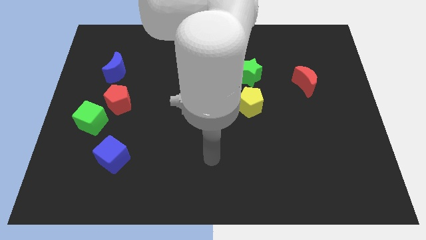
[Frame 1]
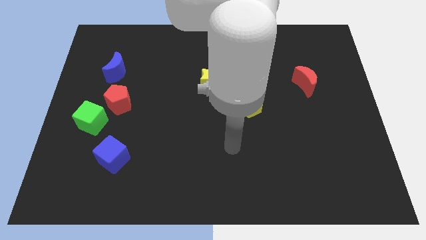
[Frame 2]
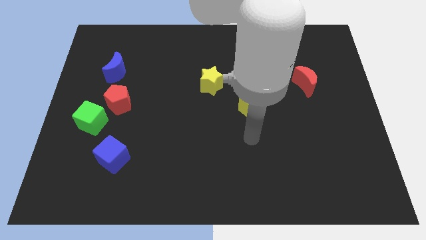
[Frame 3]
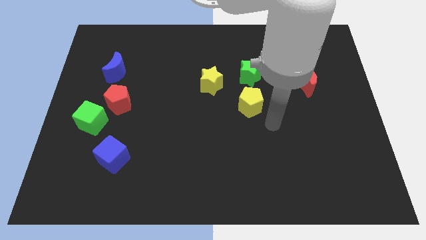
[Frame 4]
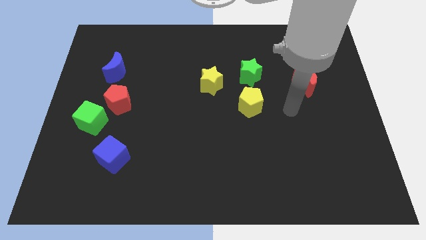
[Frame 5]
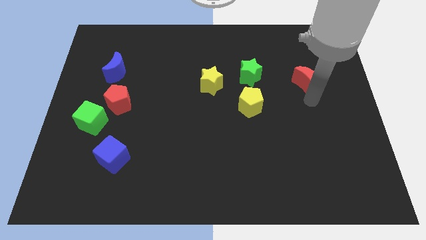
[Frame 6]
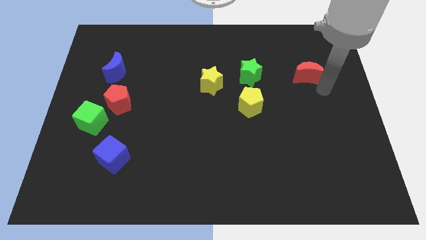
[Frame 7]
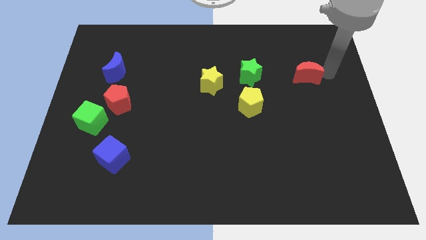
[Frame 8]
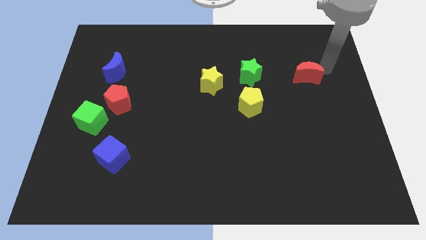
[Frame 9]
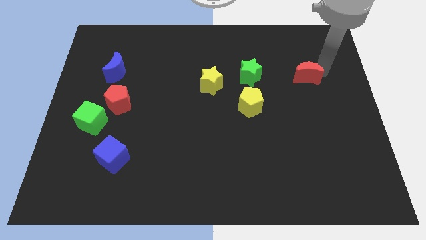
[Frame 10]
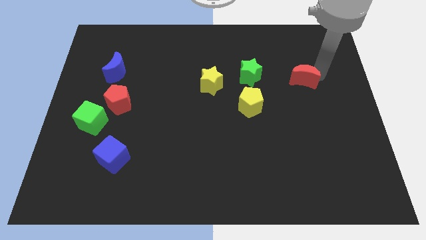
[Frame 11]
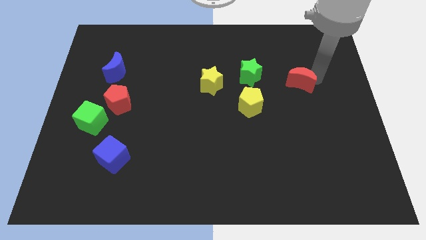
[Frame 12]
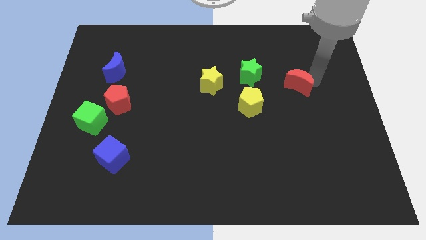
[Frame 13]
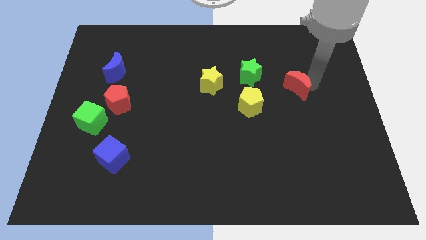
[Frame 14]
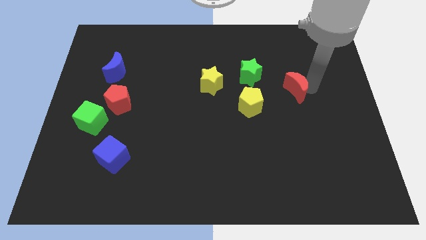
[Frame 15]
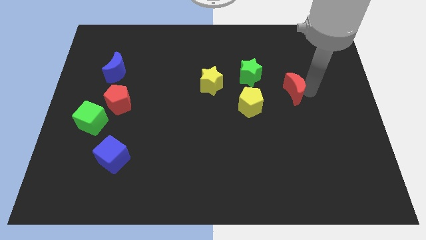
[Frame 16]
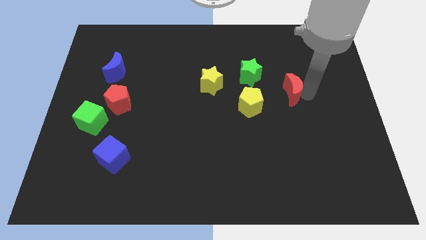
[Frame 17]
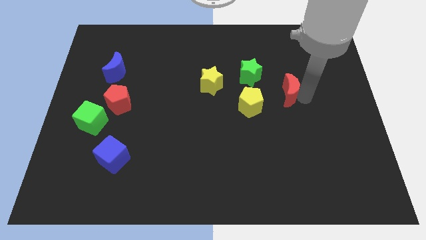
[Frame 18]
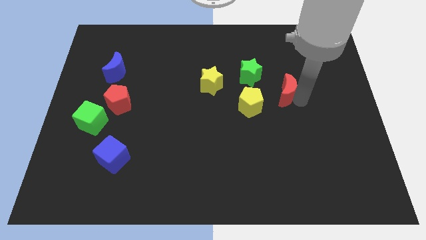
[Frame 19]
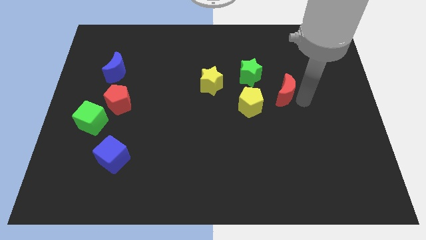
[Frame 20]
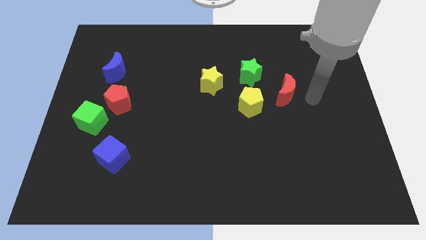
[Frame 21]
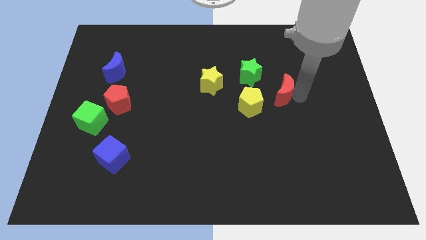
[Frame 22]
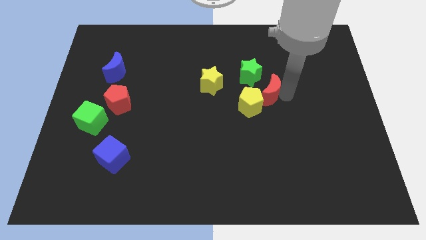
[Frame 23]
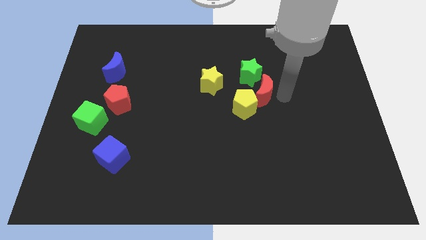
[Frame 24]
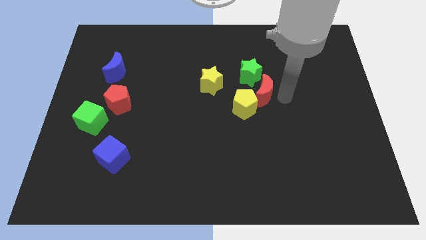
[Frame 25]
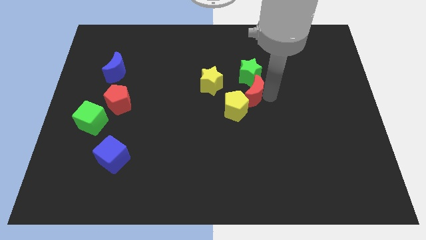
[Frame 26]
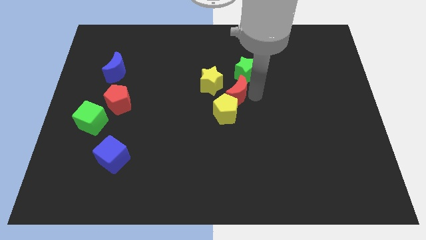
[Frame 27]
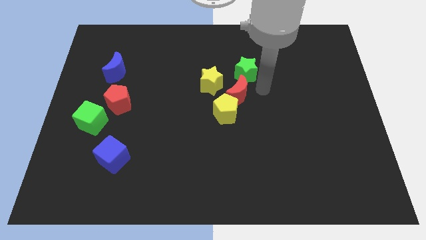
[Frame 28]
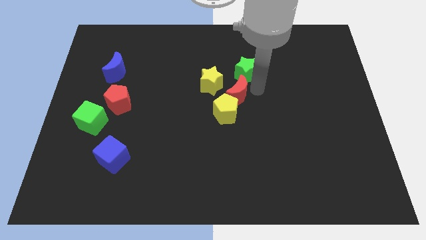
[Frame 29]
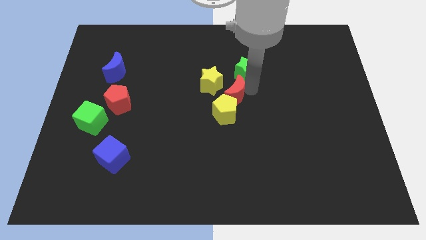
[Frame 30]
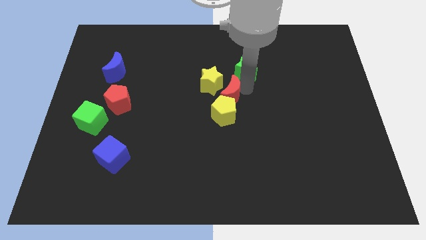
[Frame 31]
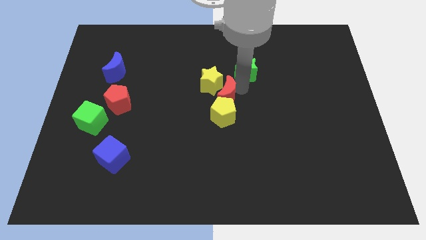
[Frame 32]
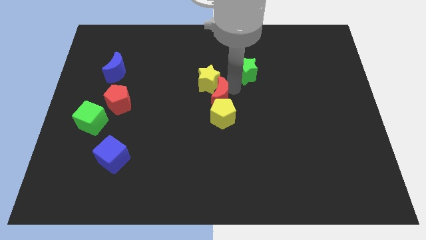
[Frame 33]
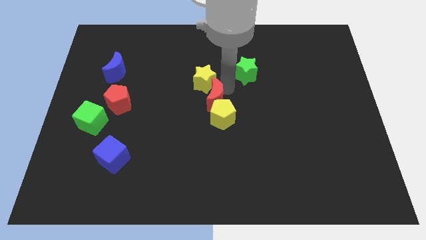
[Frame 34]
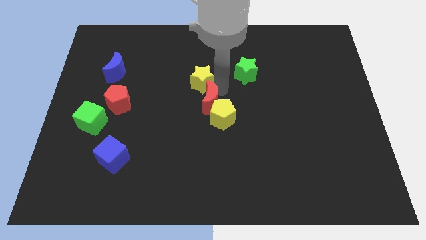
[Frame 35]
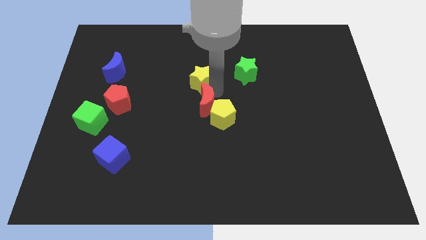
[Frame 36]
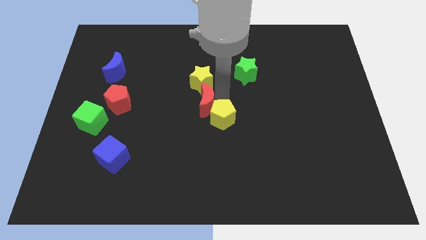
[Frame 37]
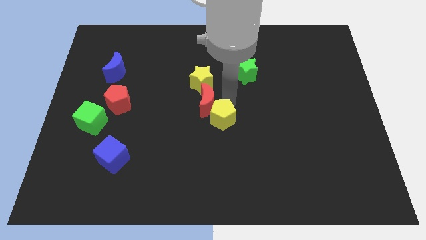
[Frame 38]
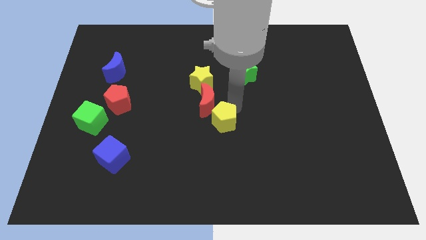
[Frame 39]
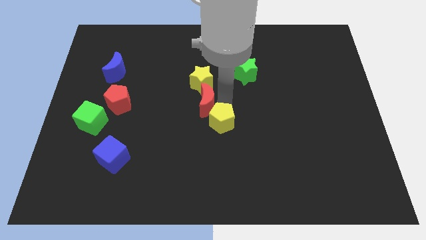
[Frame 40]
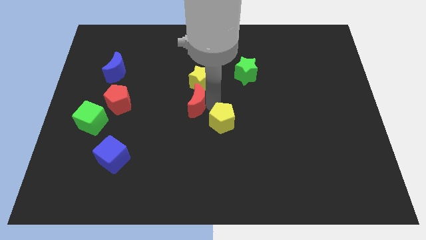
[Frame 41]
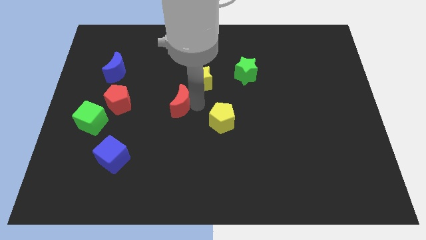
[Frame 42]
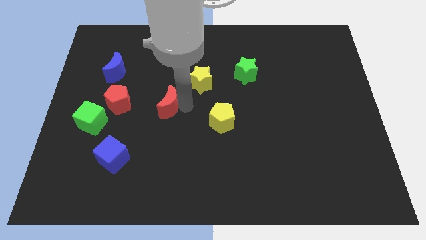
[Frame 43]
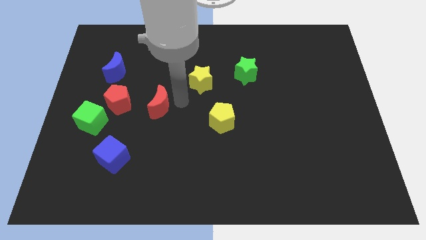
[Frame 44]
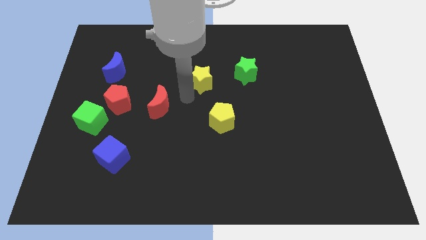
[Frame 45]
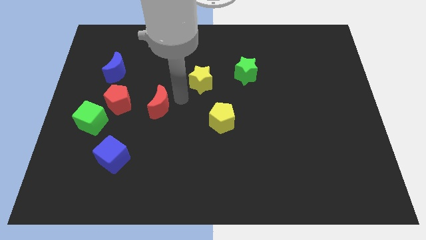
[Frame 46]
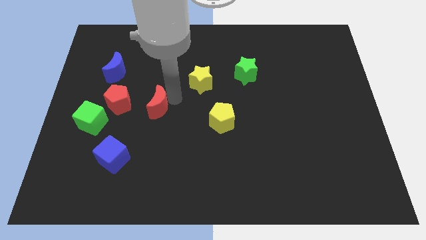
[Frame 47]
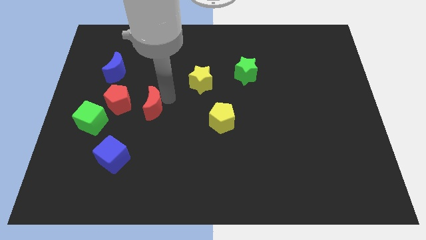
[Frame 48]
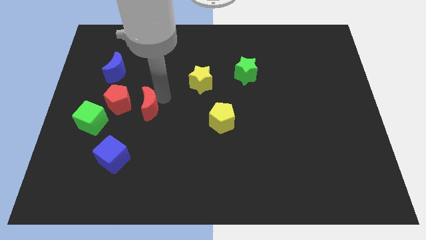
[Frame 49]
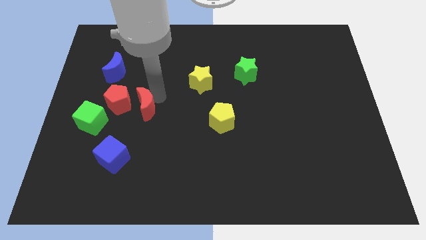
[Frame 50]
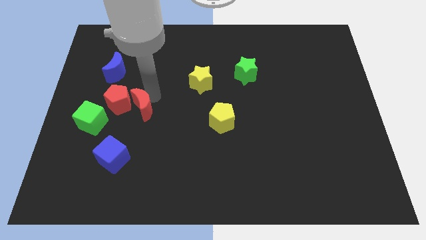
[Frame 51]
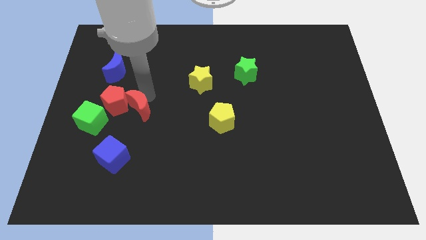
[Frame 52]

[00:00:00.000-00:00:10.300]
move the red moon above the blue cube

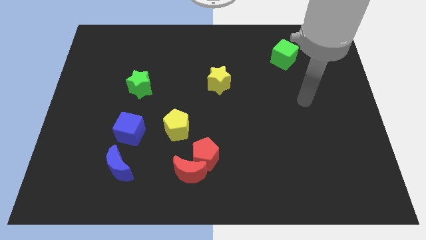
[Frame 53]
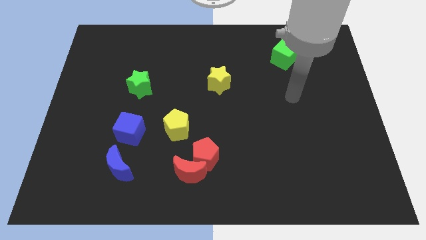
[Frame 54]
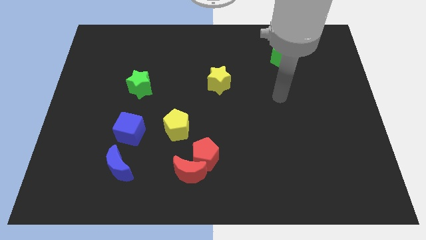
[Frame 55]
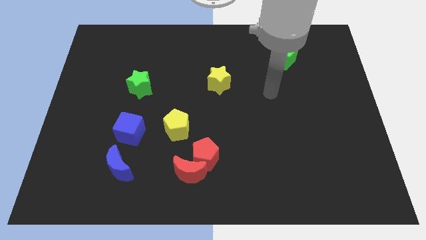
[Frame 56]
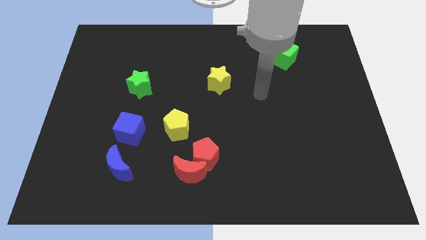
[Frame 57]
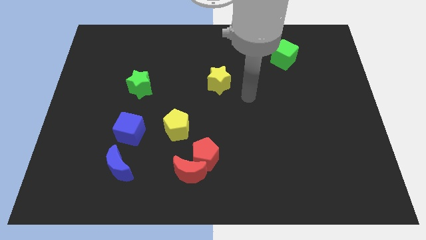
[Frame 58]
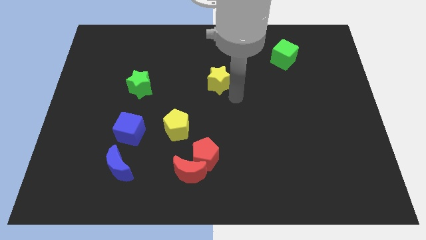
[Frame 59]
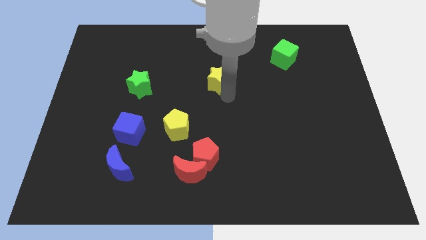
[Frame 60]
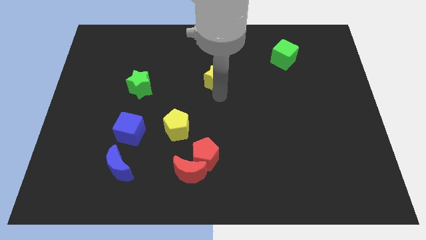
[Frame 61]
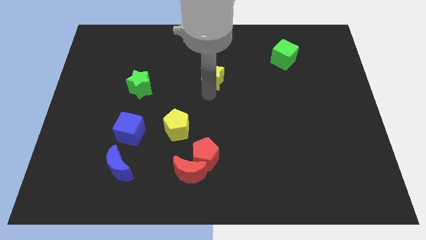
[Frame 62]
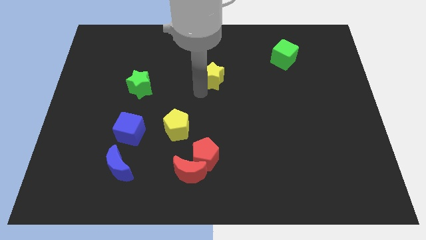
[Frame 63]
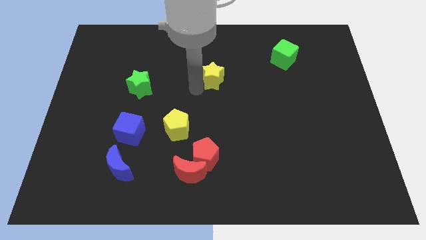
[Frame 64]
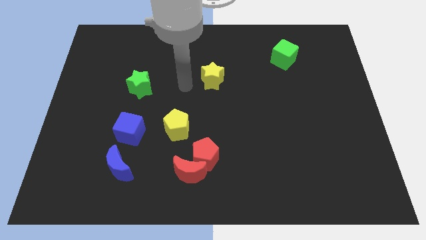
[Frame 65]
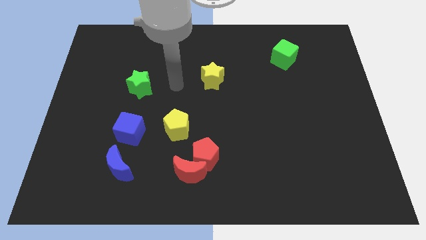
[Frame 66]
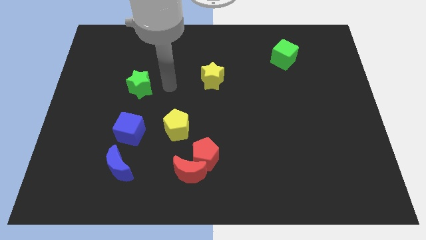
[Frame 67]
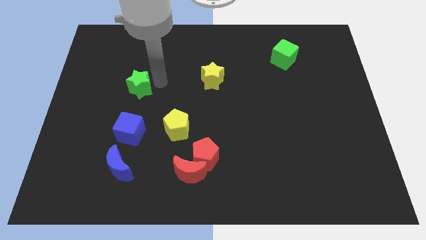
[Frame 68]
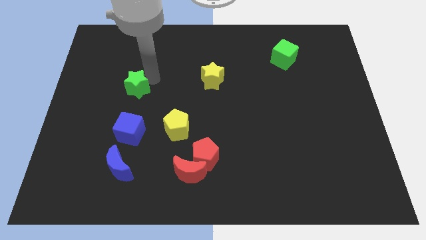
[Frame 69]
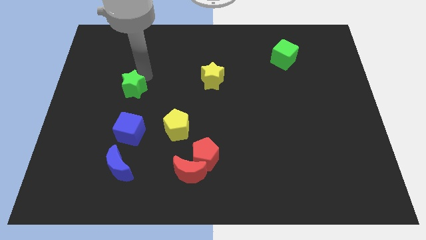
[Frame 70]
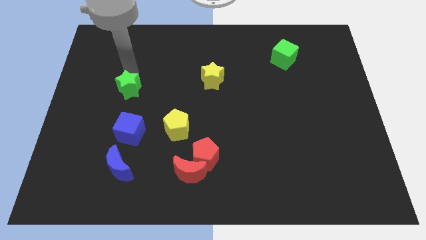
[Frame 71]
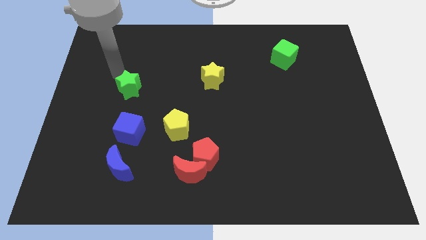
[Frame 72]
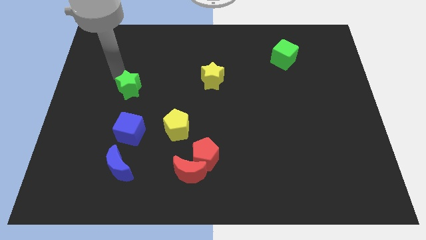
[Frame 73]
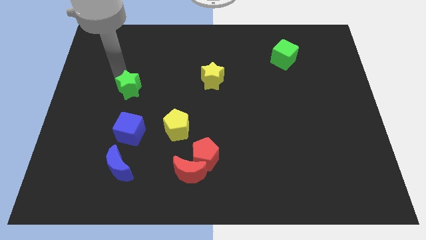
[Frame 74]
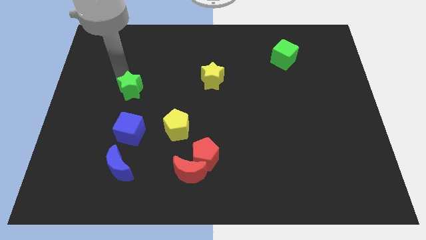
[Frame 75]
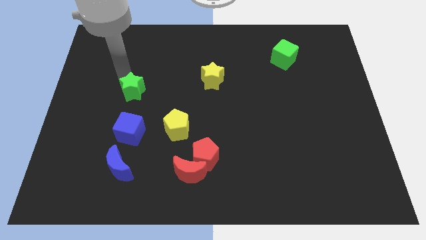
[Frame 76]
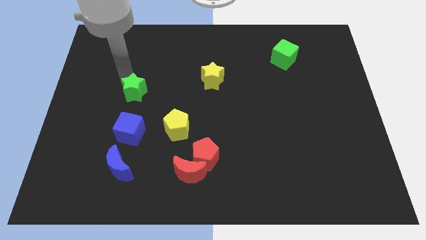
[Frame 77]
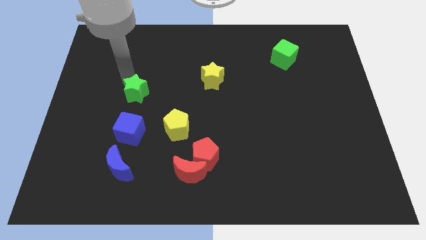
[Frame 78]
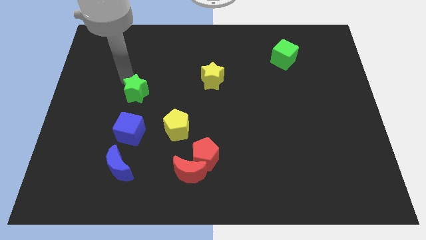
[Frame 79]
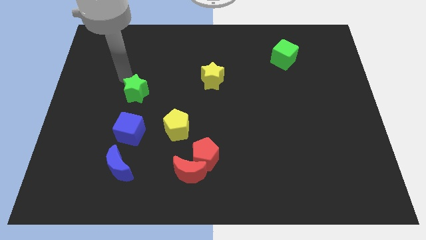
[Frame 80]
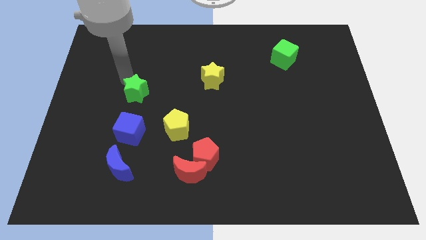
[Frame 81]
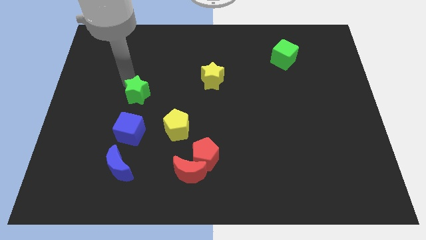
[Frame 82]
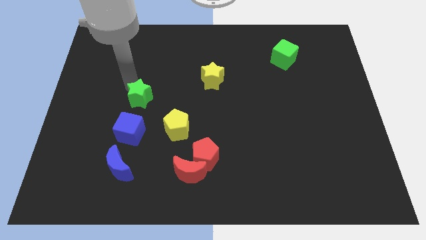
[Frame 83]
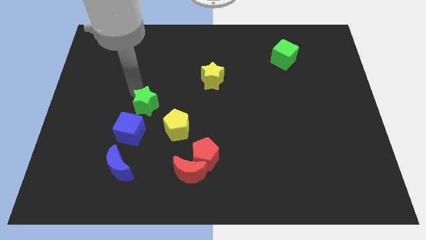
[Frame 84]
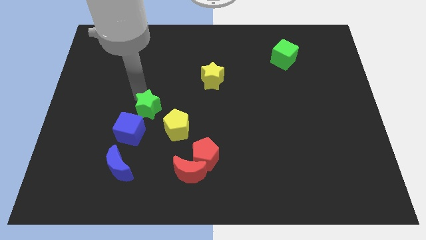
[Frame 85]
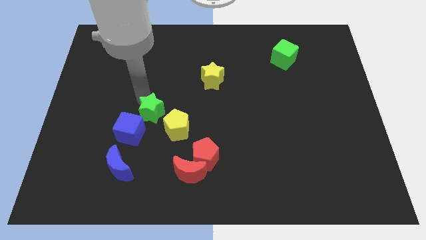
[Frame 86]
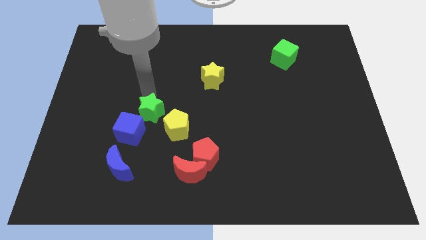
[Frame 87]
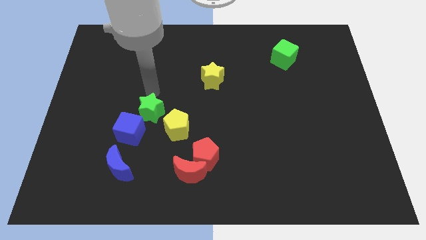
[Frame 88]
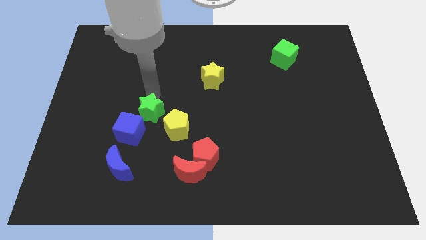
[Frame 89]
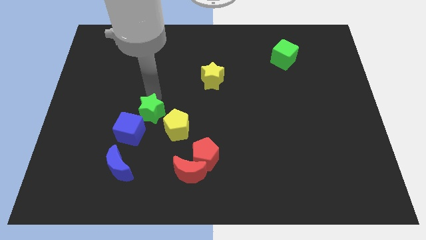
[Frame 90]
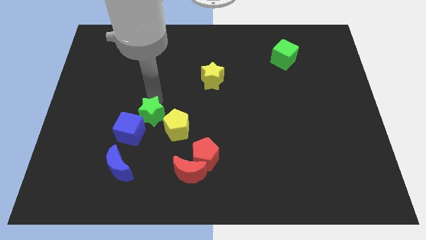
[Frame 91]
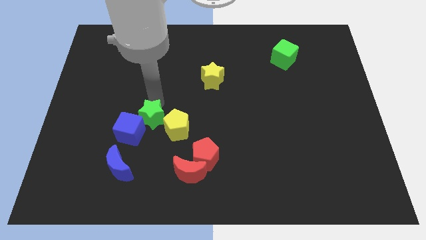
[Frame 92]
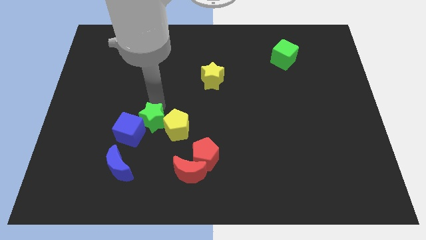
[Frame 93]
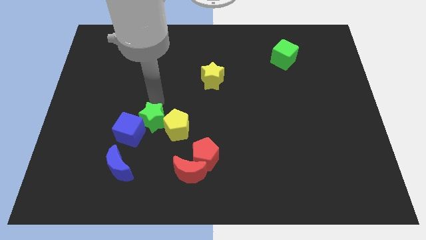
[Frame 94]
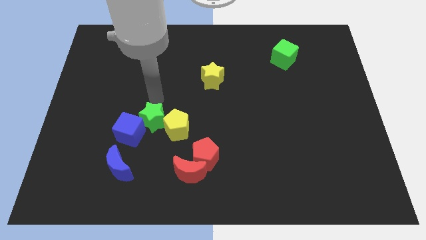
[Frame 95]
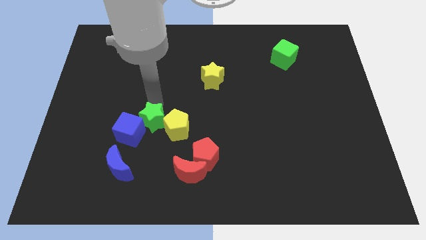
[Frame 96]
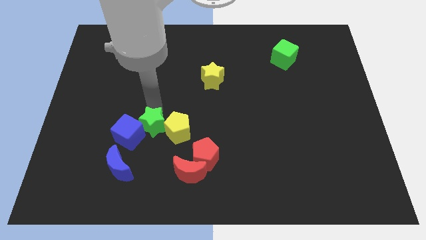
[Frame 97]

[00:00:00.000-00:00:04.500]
move the green star to the bottom left of the yellow pentagon
